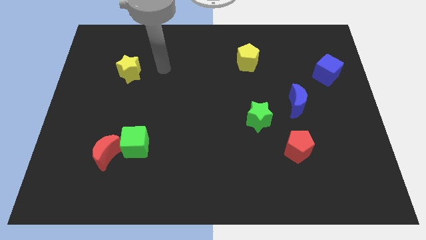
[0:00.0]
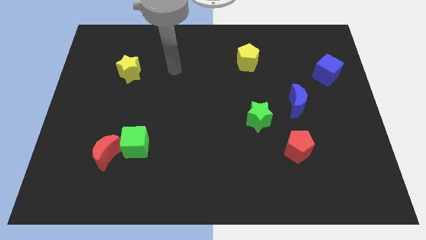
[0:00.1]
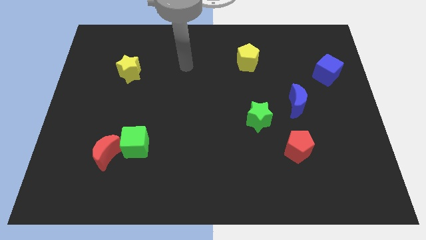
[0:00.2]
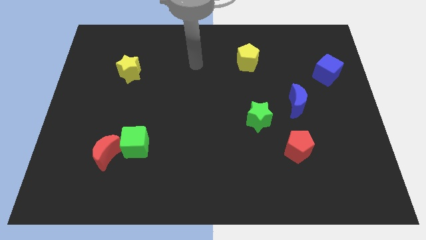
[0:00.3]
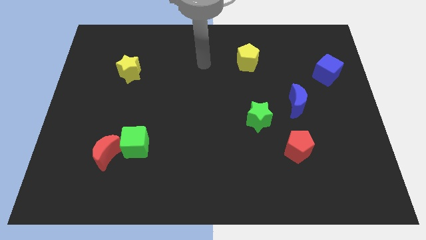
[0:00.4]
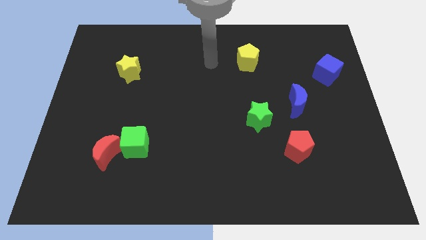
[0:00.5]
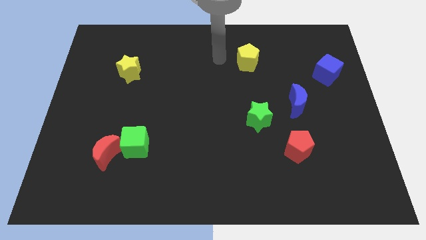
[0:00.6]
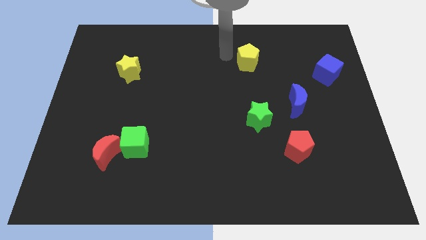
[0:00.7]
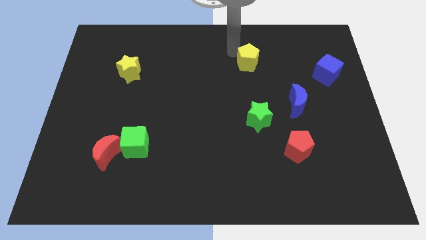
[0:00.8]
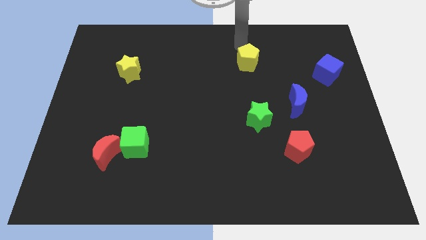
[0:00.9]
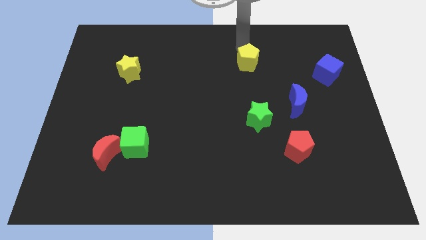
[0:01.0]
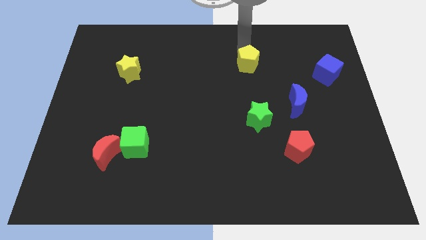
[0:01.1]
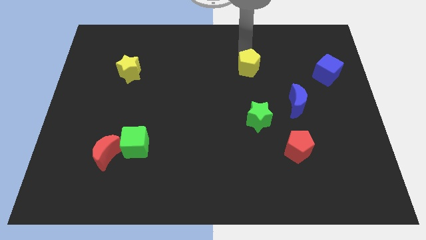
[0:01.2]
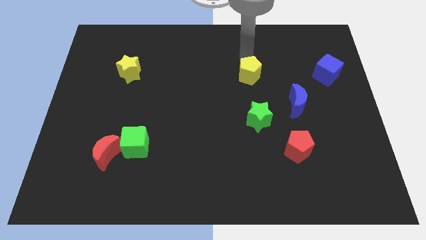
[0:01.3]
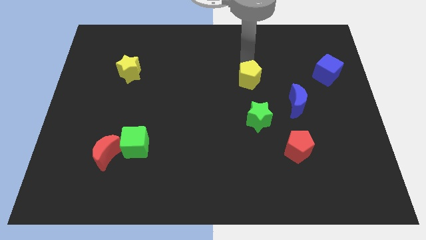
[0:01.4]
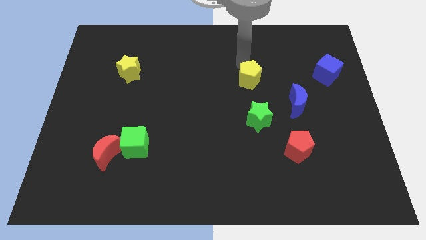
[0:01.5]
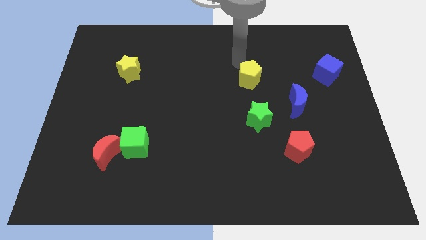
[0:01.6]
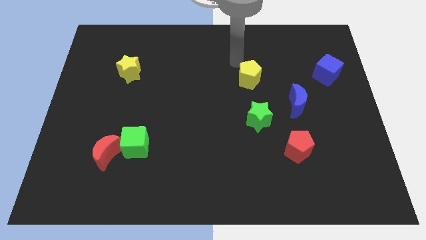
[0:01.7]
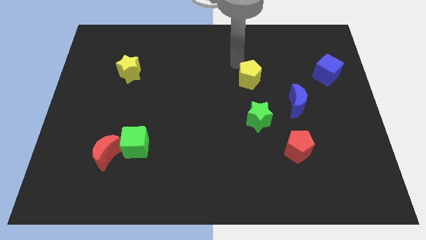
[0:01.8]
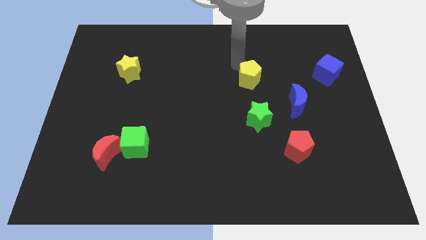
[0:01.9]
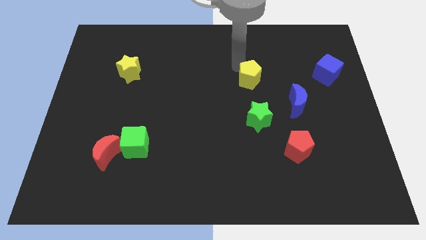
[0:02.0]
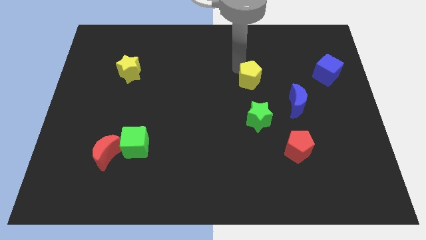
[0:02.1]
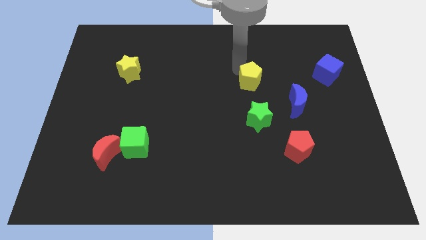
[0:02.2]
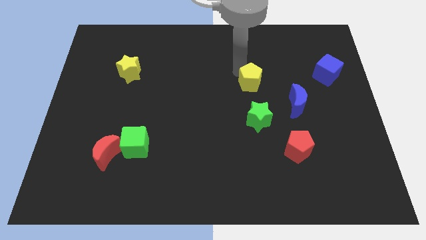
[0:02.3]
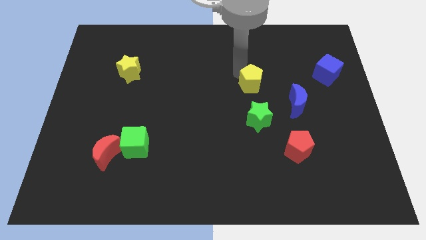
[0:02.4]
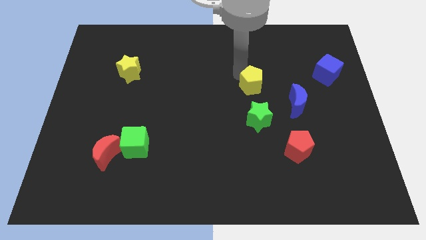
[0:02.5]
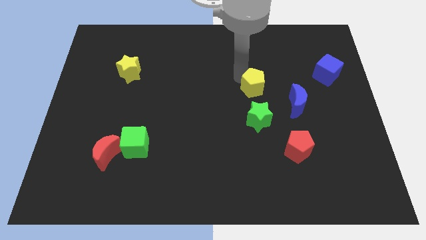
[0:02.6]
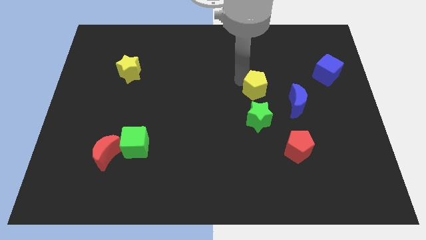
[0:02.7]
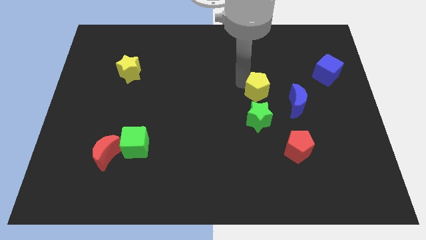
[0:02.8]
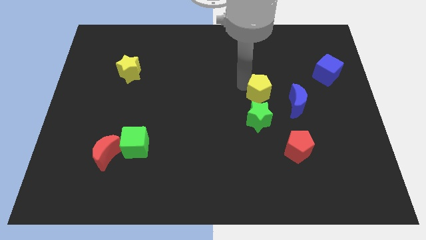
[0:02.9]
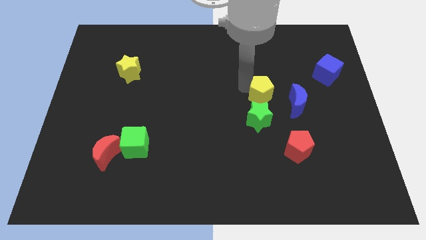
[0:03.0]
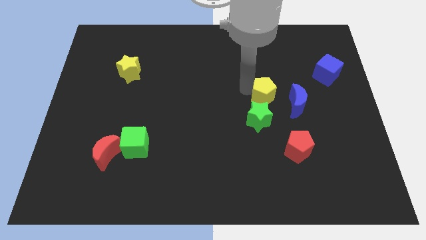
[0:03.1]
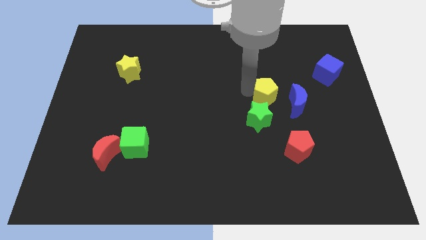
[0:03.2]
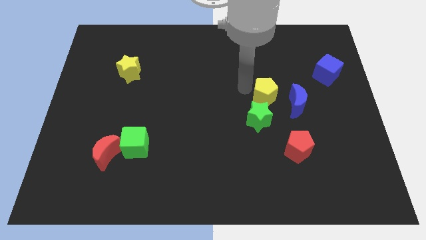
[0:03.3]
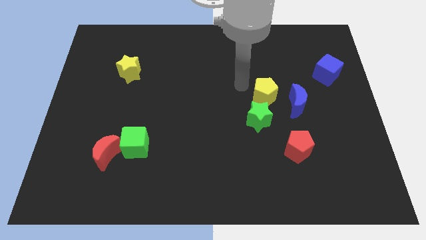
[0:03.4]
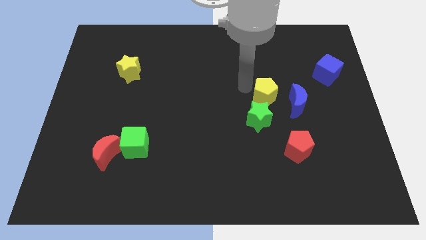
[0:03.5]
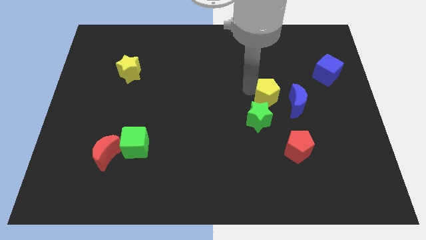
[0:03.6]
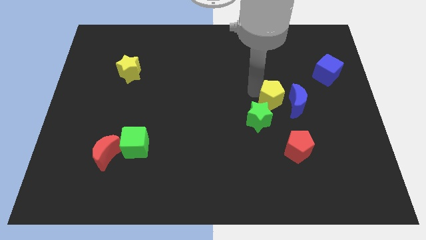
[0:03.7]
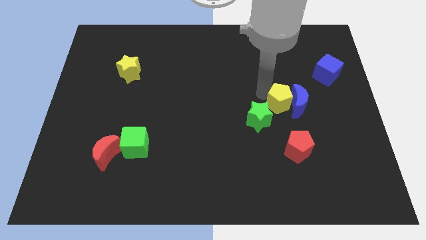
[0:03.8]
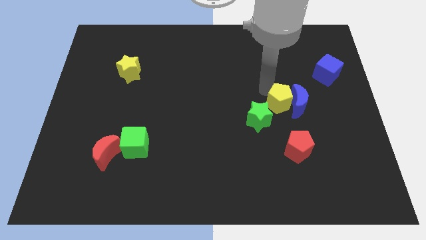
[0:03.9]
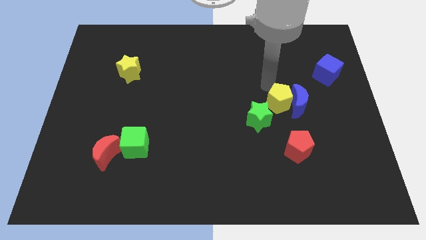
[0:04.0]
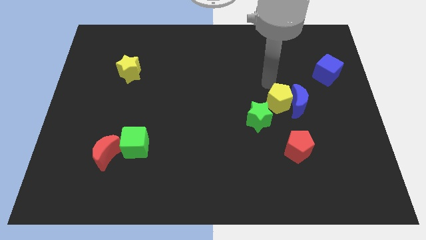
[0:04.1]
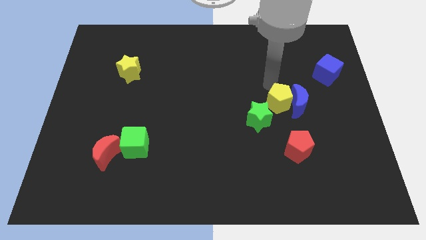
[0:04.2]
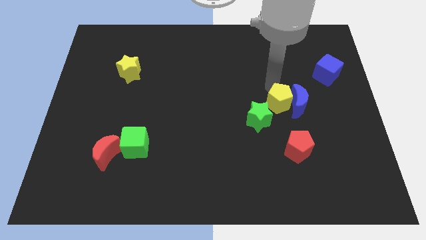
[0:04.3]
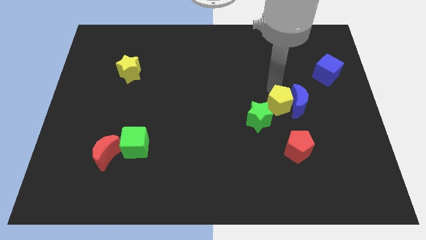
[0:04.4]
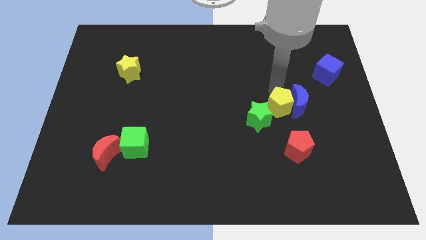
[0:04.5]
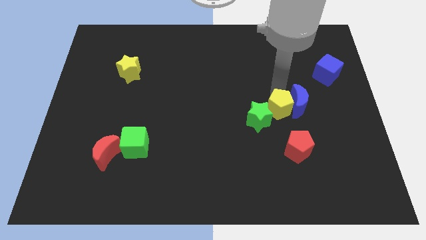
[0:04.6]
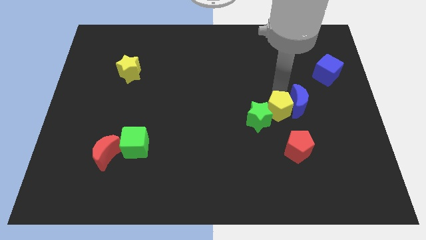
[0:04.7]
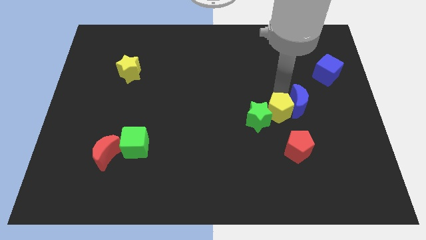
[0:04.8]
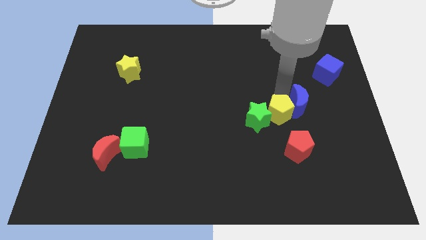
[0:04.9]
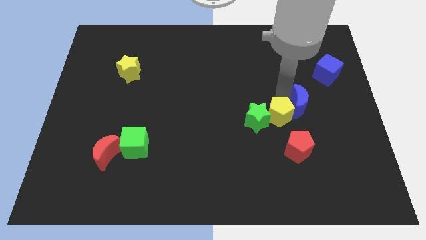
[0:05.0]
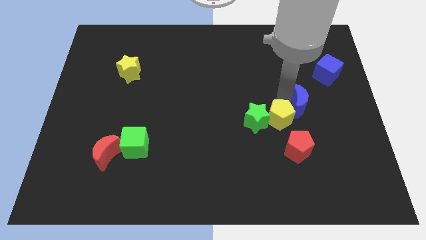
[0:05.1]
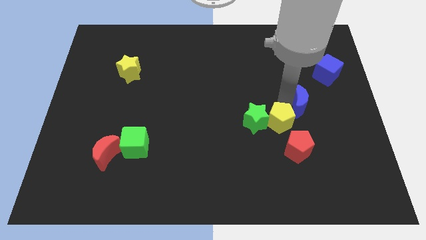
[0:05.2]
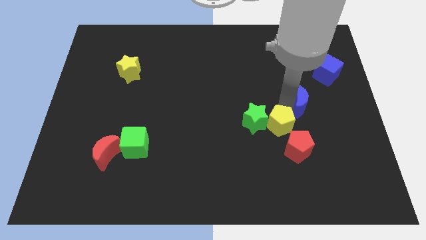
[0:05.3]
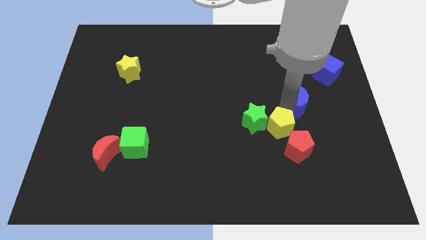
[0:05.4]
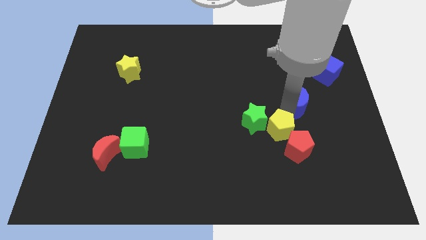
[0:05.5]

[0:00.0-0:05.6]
move the yellow pentagon next to the red pentagon

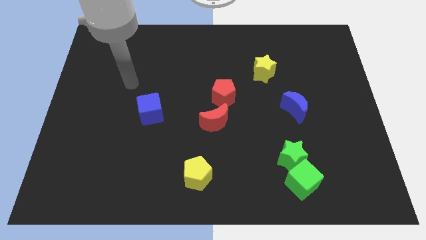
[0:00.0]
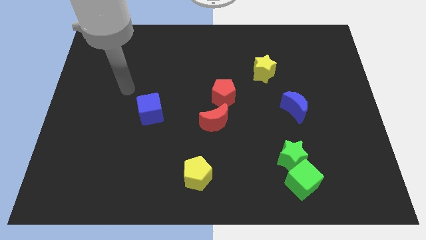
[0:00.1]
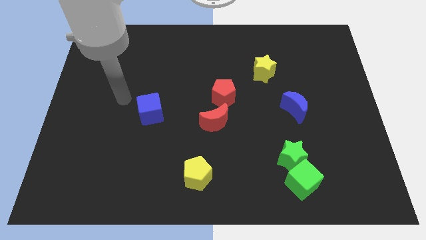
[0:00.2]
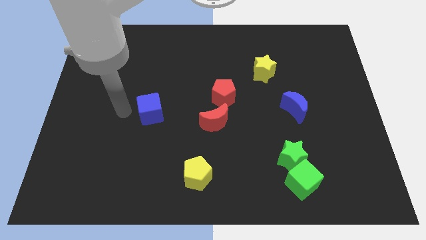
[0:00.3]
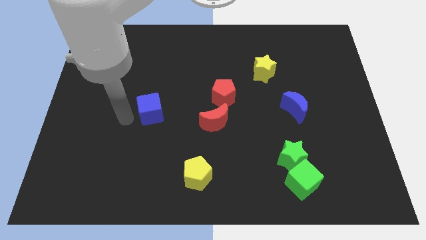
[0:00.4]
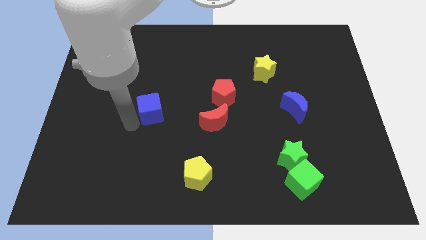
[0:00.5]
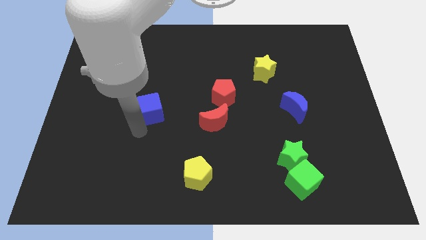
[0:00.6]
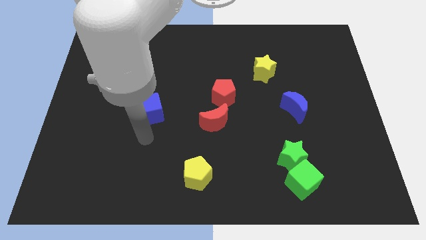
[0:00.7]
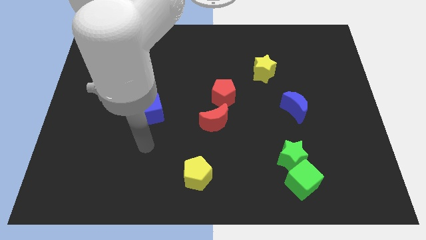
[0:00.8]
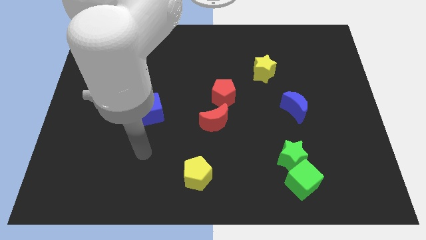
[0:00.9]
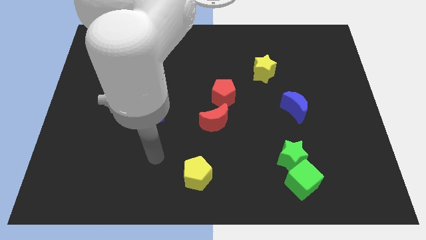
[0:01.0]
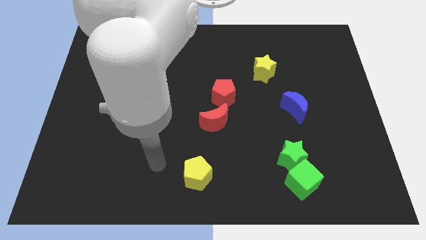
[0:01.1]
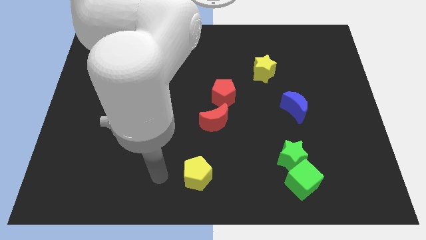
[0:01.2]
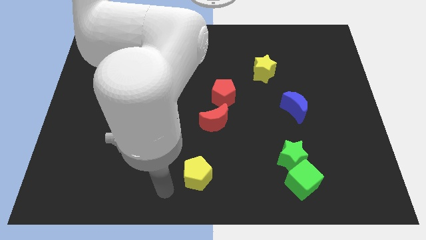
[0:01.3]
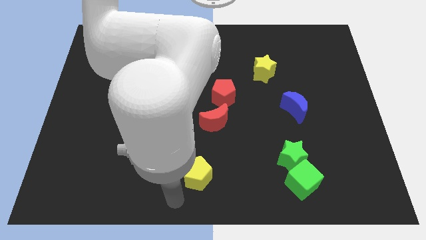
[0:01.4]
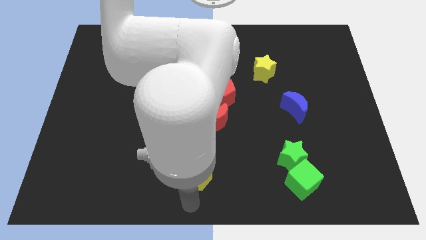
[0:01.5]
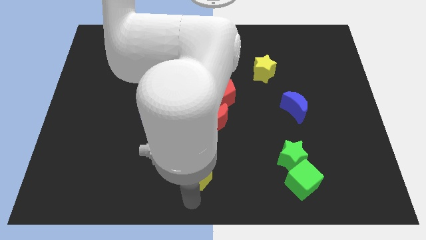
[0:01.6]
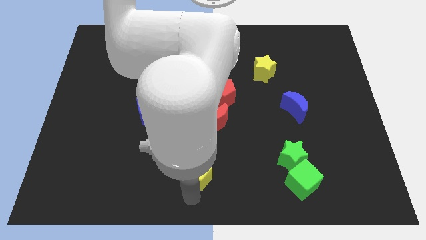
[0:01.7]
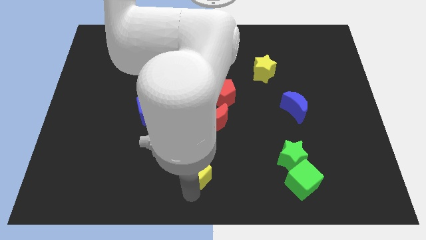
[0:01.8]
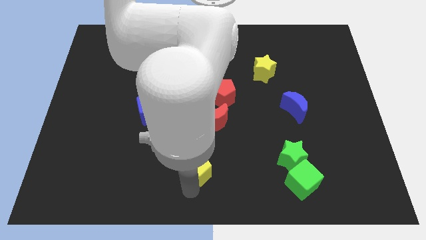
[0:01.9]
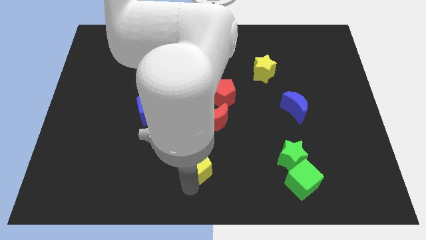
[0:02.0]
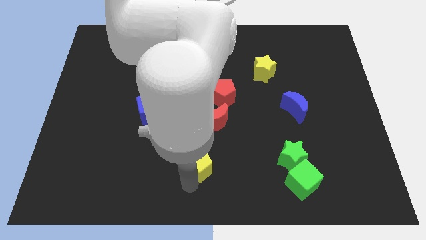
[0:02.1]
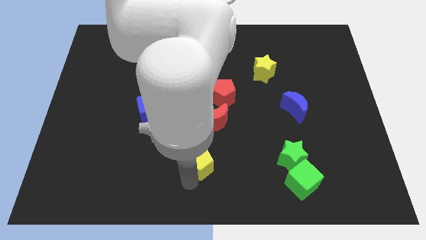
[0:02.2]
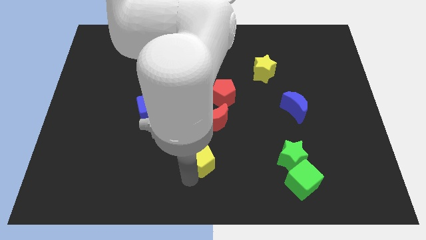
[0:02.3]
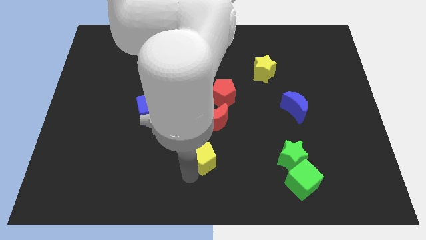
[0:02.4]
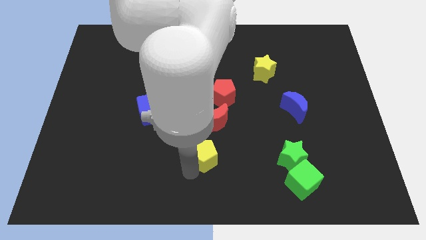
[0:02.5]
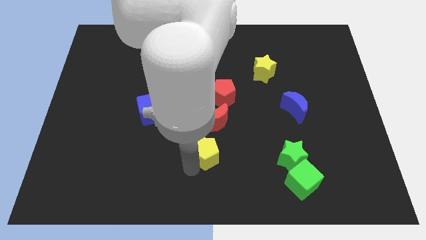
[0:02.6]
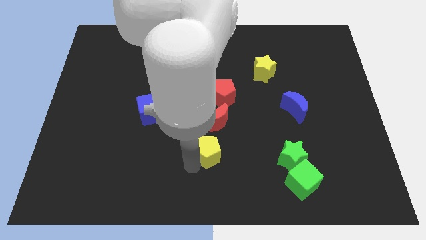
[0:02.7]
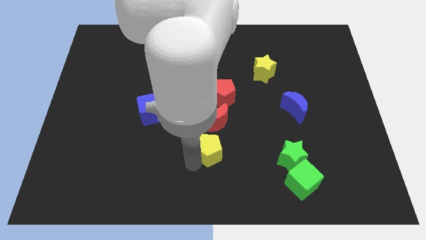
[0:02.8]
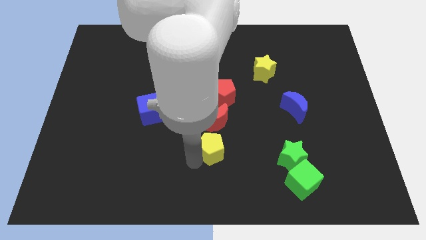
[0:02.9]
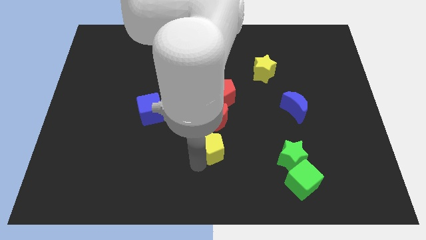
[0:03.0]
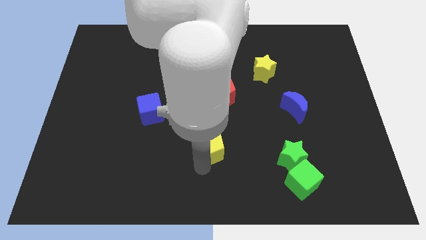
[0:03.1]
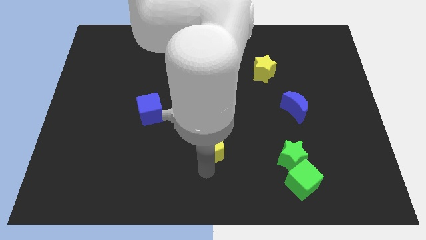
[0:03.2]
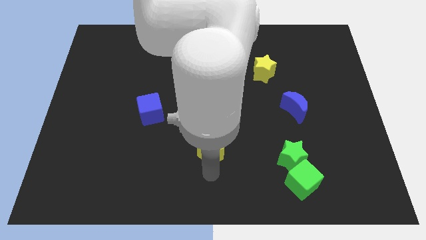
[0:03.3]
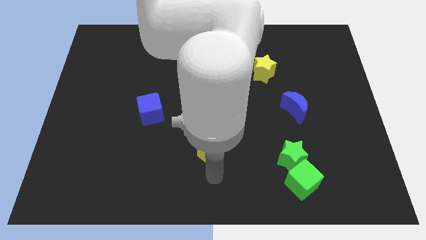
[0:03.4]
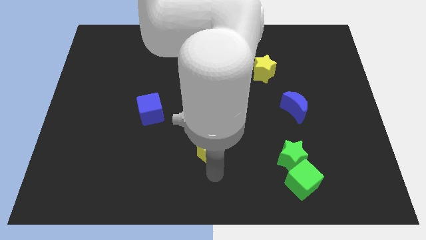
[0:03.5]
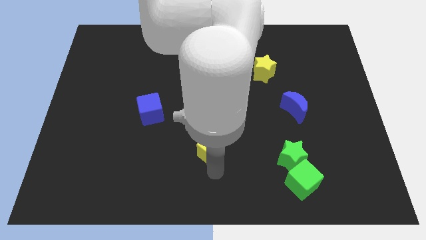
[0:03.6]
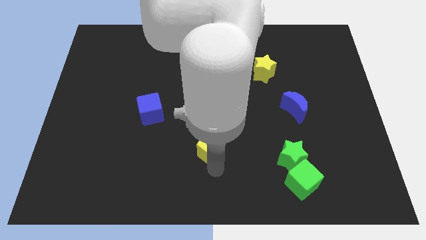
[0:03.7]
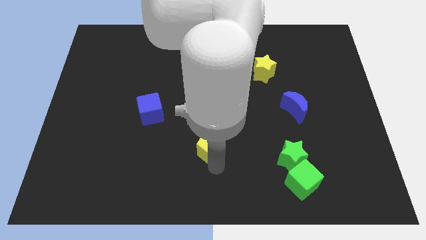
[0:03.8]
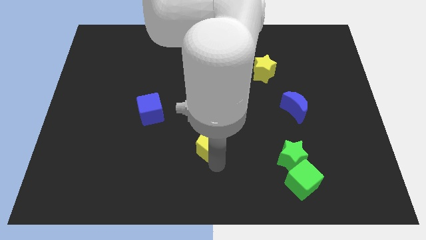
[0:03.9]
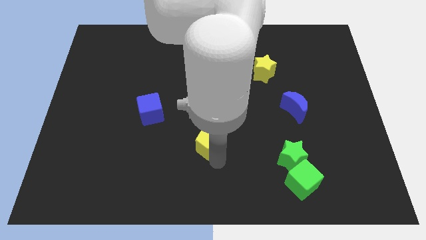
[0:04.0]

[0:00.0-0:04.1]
slide the yellow pentagon to the red moon
